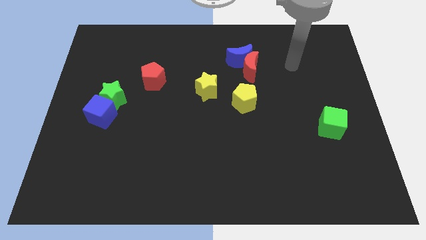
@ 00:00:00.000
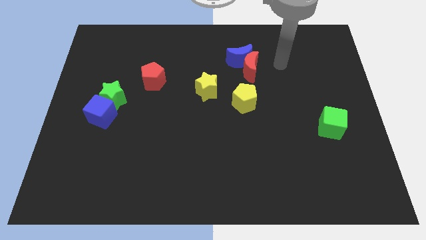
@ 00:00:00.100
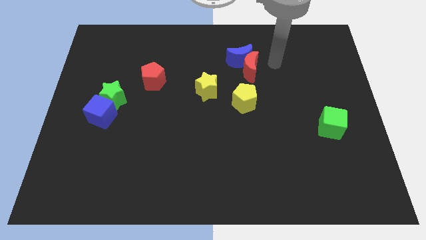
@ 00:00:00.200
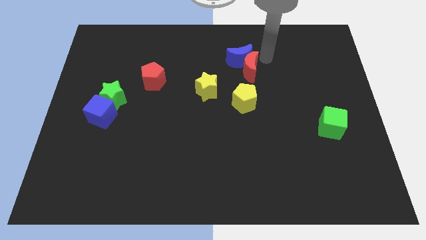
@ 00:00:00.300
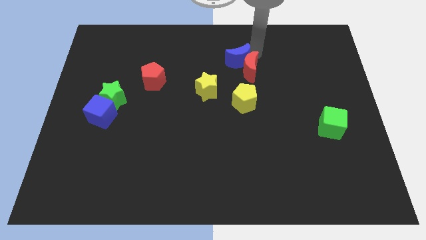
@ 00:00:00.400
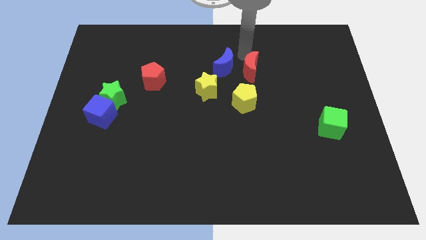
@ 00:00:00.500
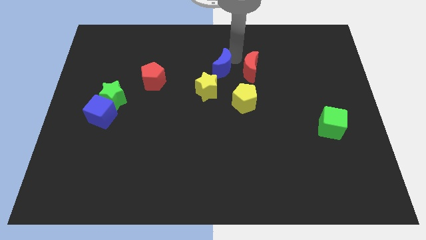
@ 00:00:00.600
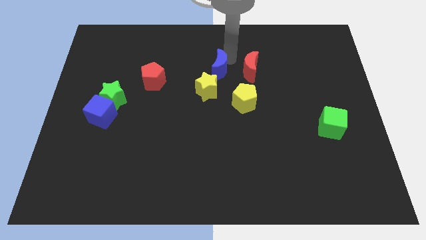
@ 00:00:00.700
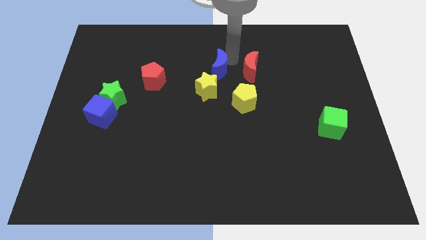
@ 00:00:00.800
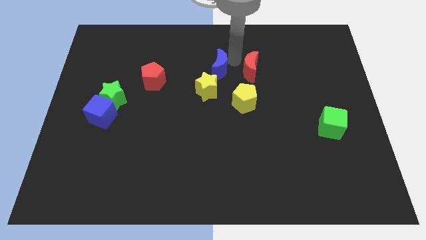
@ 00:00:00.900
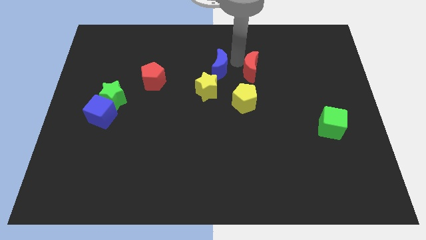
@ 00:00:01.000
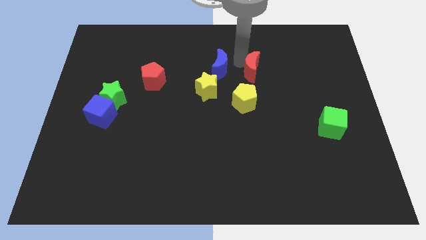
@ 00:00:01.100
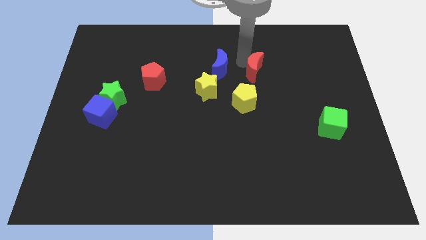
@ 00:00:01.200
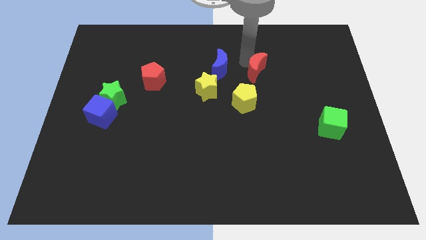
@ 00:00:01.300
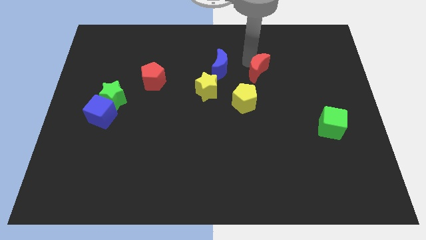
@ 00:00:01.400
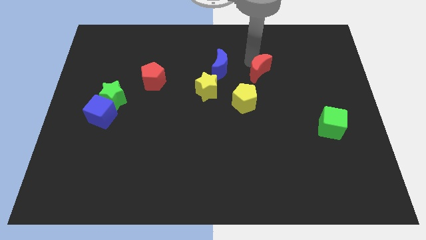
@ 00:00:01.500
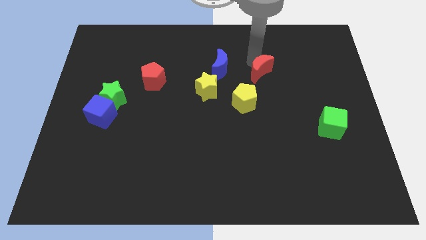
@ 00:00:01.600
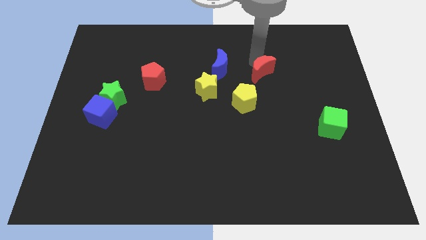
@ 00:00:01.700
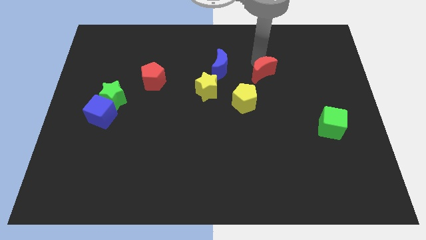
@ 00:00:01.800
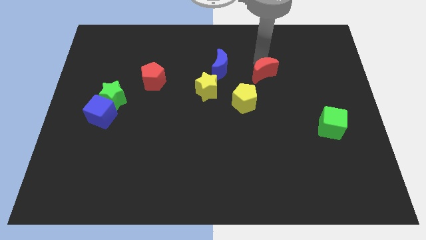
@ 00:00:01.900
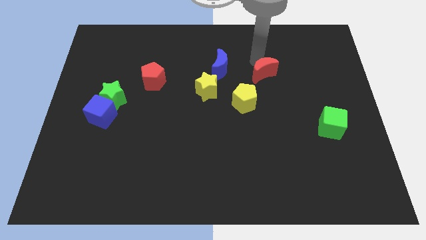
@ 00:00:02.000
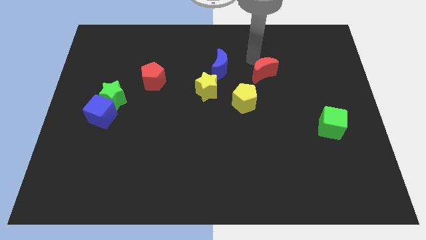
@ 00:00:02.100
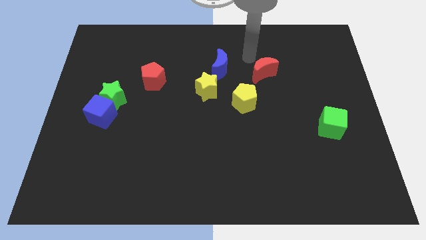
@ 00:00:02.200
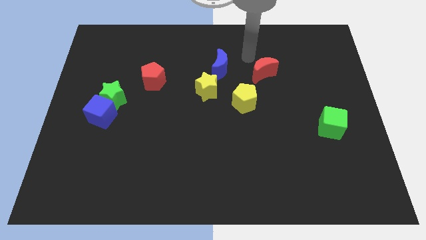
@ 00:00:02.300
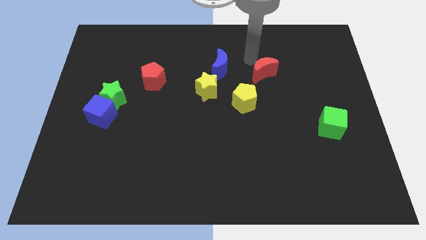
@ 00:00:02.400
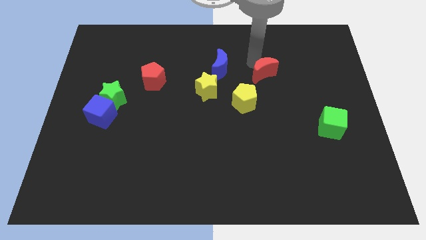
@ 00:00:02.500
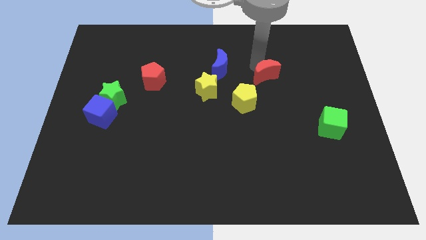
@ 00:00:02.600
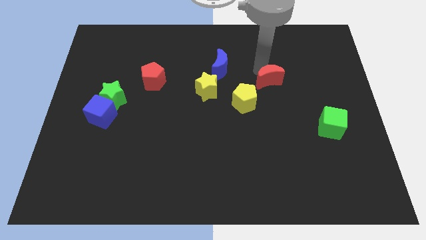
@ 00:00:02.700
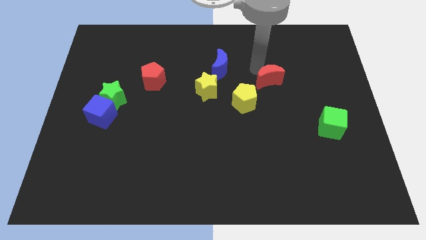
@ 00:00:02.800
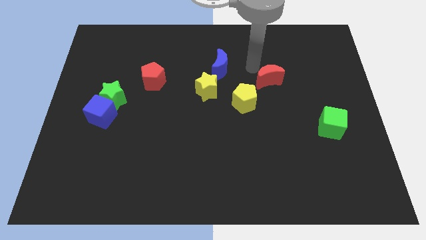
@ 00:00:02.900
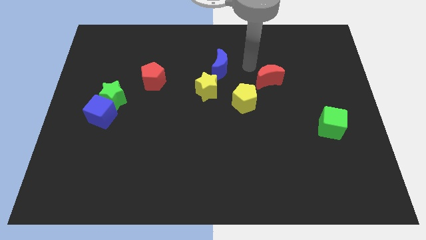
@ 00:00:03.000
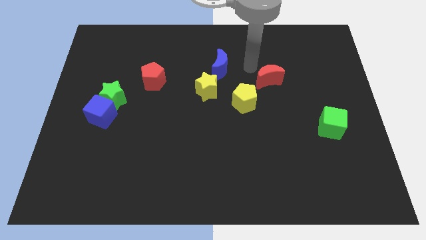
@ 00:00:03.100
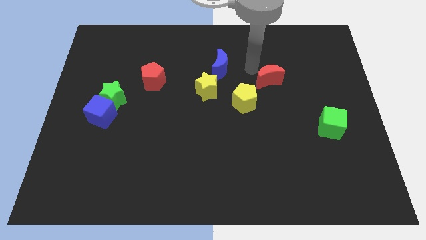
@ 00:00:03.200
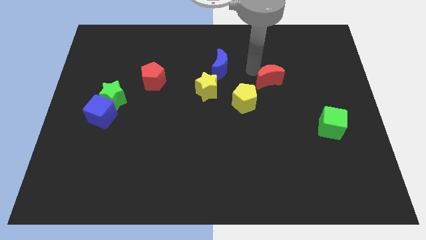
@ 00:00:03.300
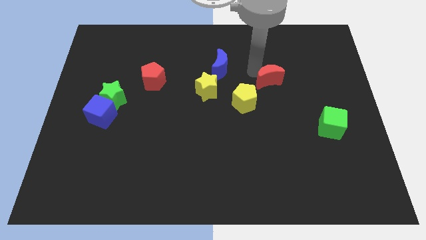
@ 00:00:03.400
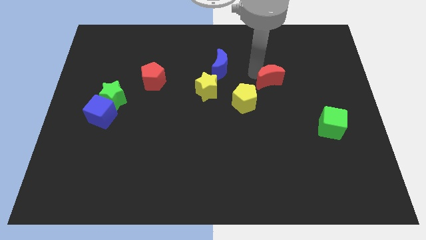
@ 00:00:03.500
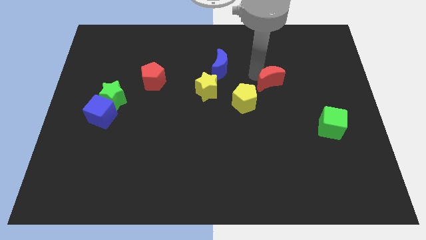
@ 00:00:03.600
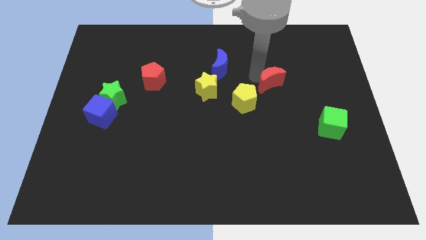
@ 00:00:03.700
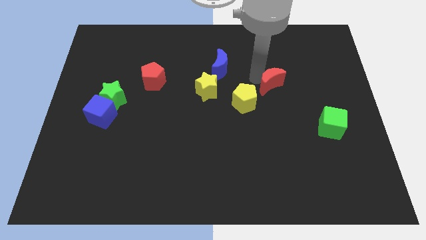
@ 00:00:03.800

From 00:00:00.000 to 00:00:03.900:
slightly push the red moon down and to the right diagonally

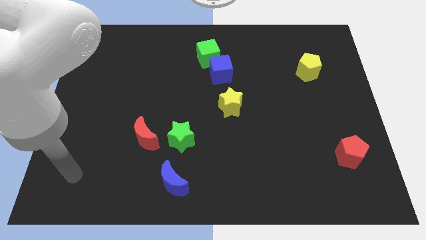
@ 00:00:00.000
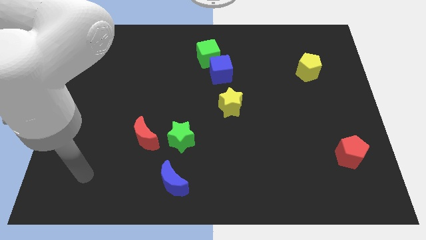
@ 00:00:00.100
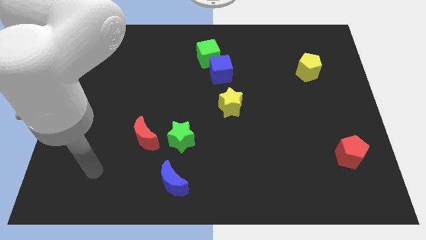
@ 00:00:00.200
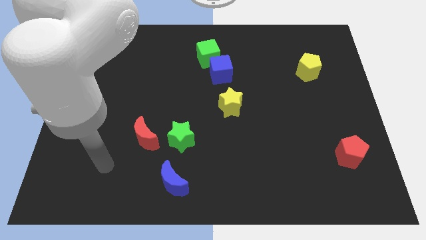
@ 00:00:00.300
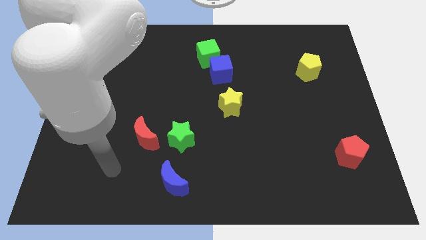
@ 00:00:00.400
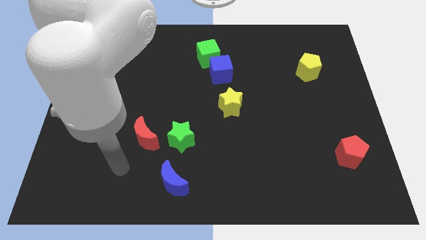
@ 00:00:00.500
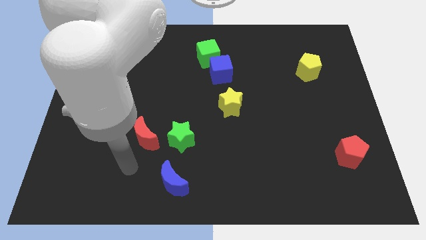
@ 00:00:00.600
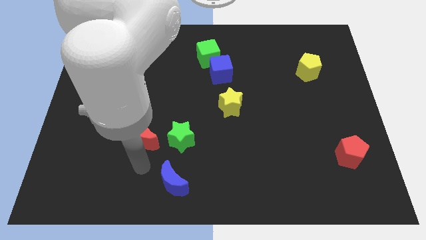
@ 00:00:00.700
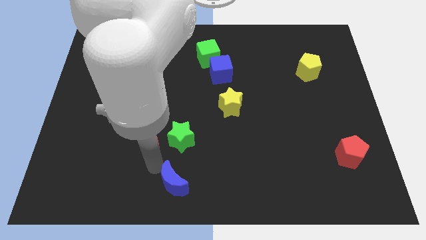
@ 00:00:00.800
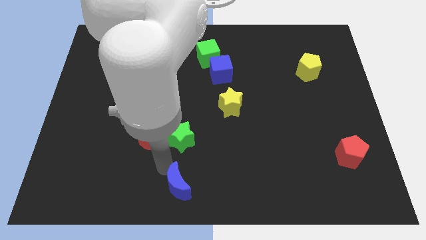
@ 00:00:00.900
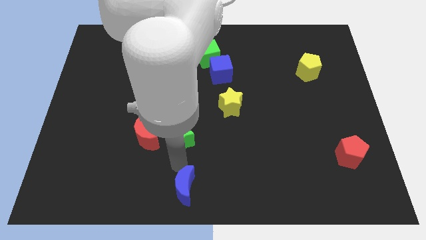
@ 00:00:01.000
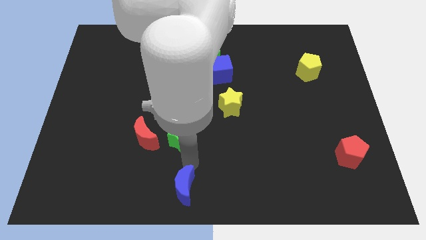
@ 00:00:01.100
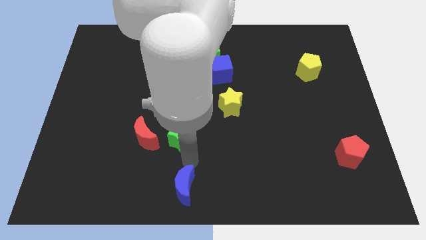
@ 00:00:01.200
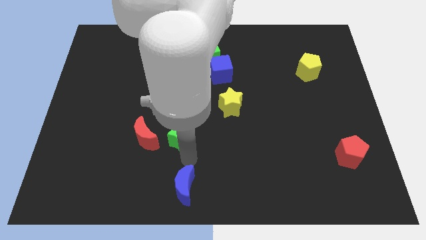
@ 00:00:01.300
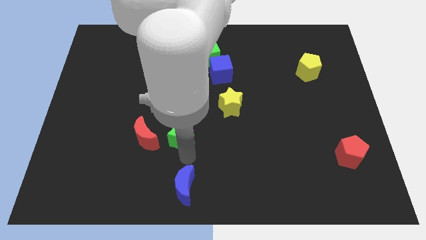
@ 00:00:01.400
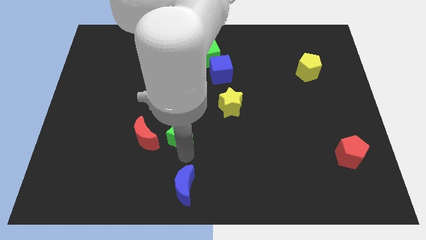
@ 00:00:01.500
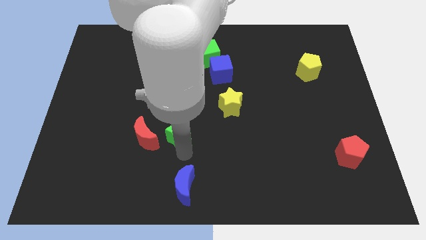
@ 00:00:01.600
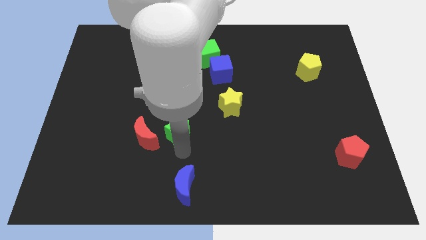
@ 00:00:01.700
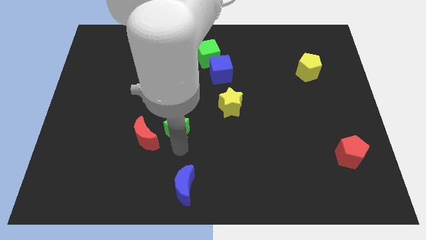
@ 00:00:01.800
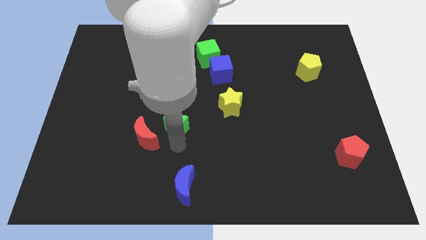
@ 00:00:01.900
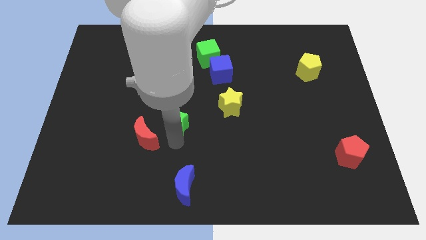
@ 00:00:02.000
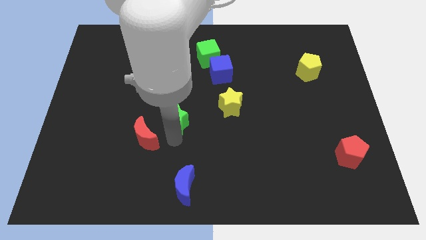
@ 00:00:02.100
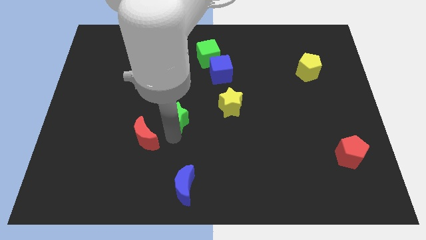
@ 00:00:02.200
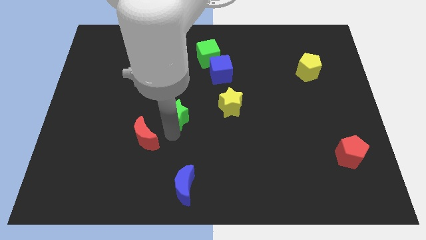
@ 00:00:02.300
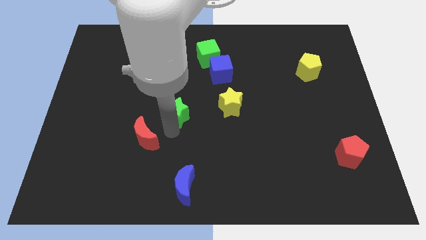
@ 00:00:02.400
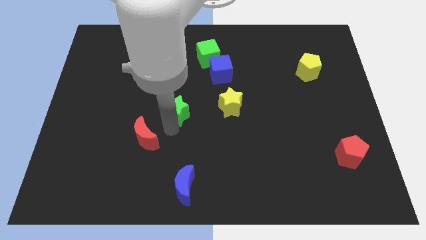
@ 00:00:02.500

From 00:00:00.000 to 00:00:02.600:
slightly push the green star upwards

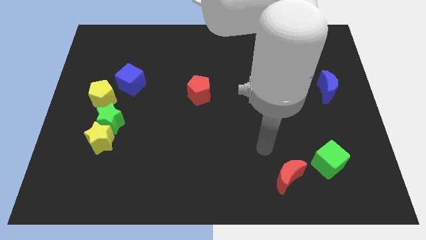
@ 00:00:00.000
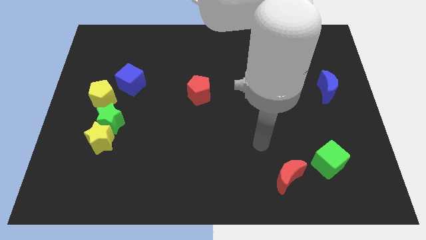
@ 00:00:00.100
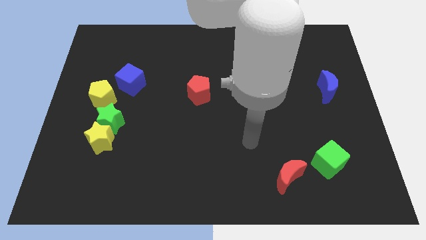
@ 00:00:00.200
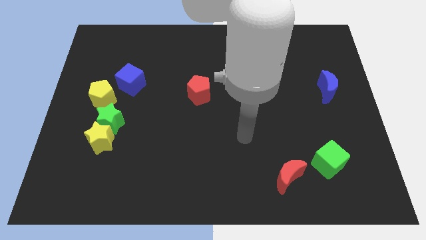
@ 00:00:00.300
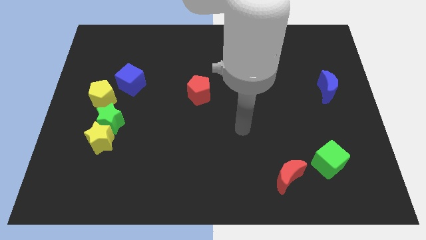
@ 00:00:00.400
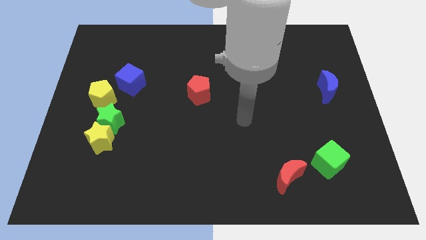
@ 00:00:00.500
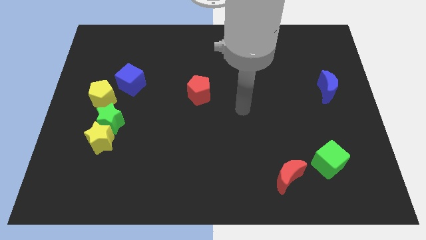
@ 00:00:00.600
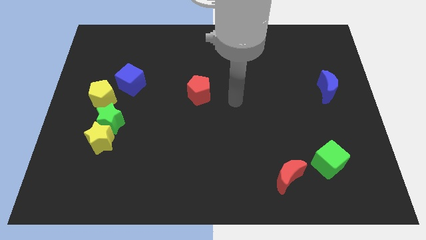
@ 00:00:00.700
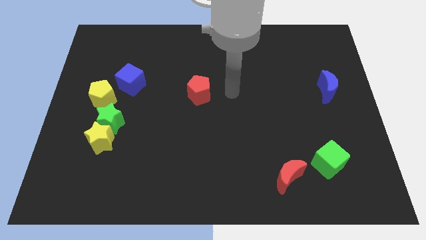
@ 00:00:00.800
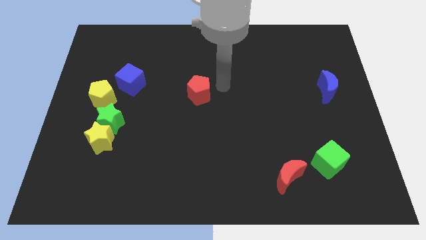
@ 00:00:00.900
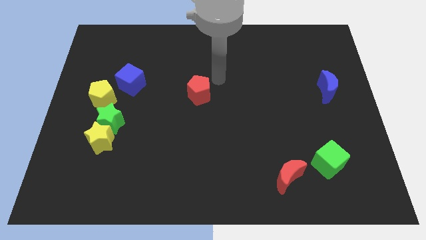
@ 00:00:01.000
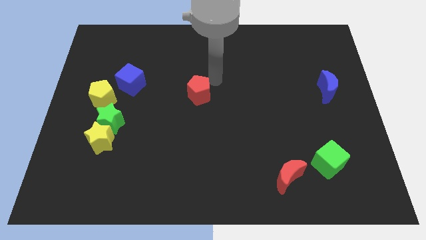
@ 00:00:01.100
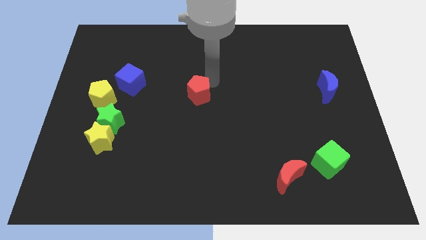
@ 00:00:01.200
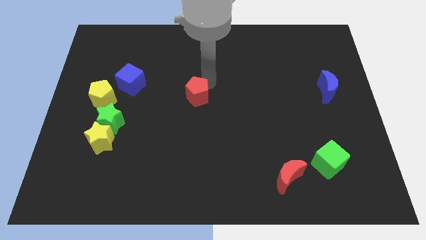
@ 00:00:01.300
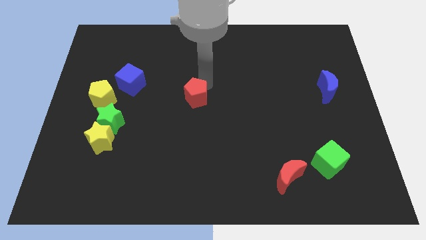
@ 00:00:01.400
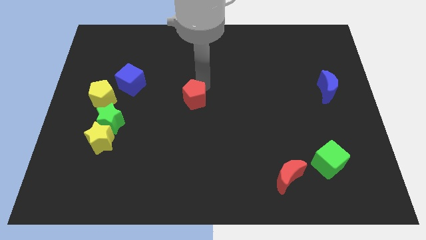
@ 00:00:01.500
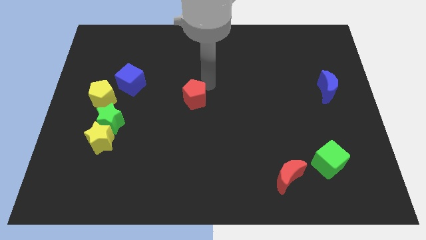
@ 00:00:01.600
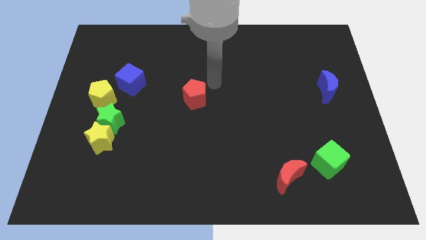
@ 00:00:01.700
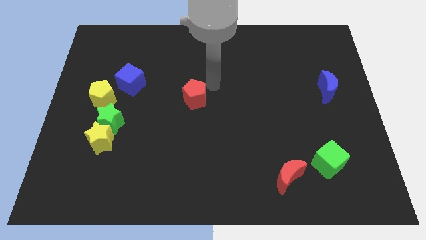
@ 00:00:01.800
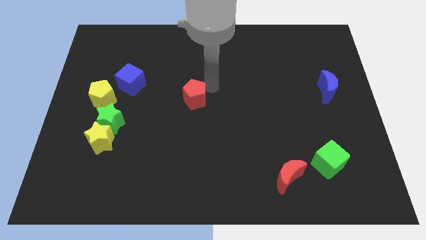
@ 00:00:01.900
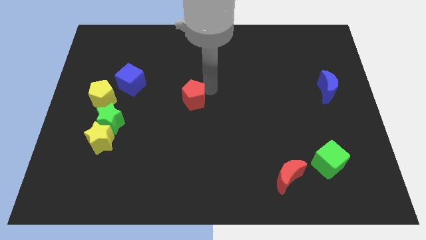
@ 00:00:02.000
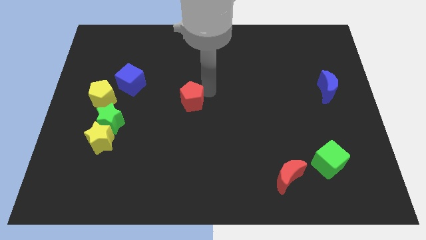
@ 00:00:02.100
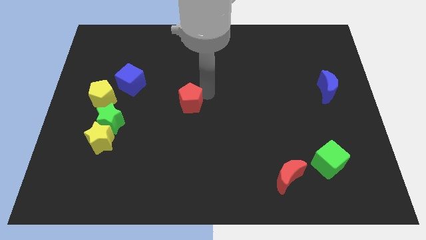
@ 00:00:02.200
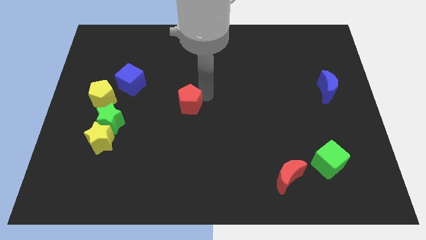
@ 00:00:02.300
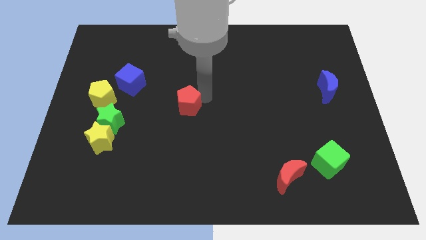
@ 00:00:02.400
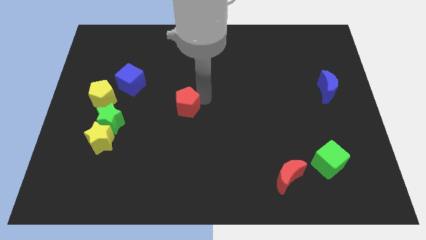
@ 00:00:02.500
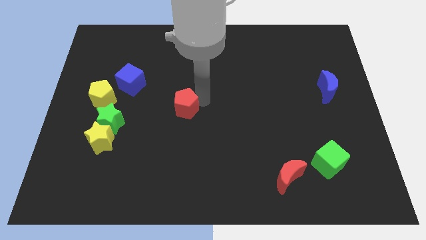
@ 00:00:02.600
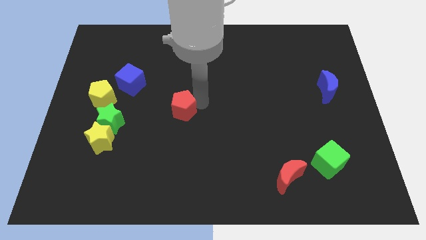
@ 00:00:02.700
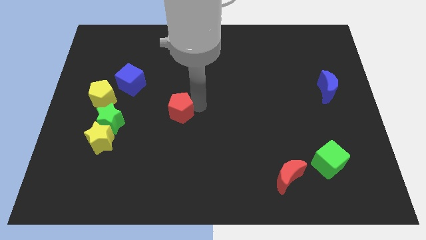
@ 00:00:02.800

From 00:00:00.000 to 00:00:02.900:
slide the red pentagon downwards and to the left diagonally a little
